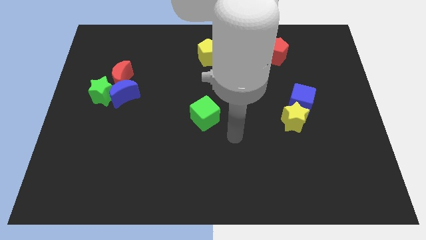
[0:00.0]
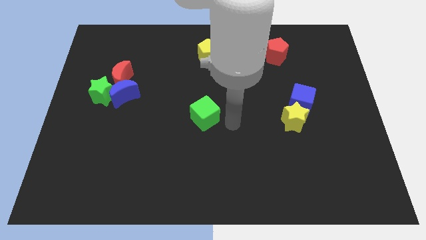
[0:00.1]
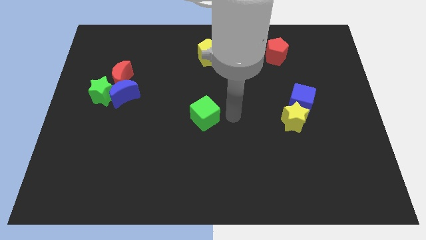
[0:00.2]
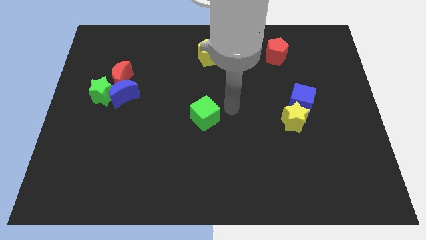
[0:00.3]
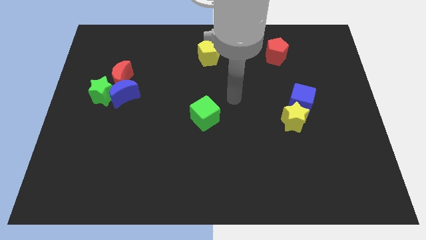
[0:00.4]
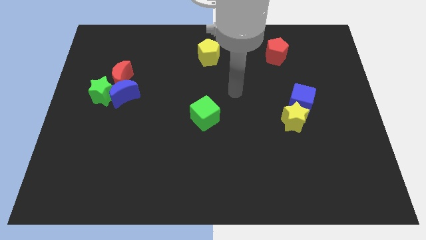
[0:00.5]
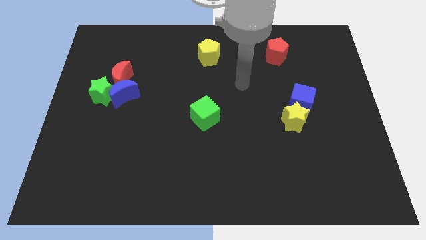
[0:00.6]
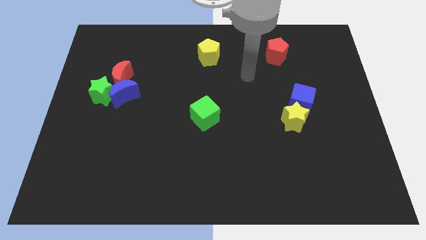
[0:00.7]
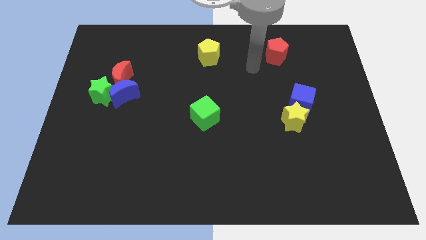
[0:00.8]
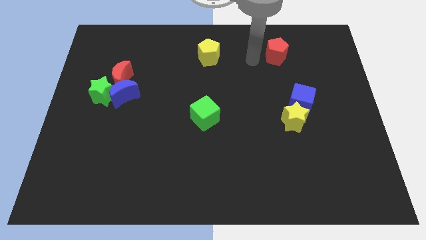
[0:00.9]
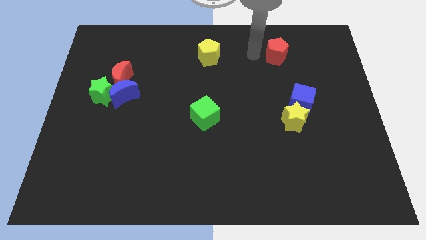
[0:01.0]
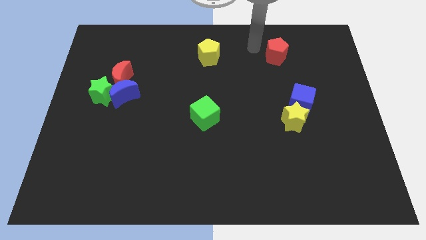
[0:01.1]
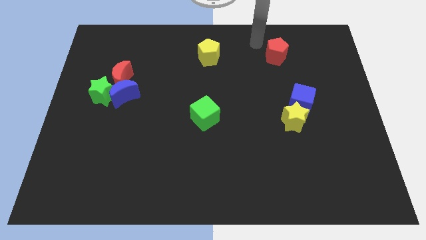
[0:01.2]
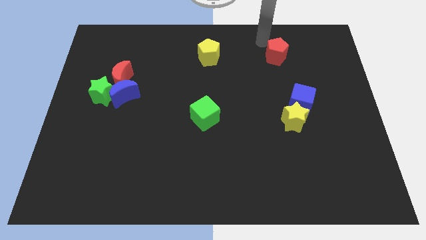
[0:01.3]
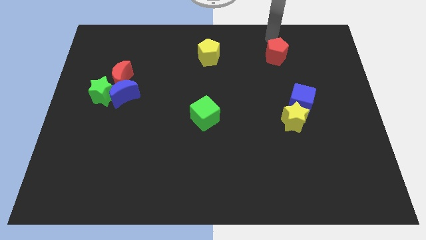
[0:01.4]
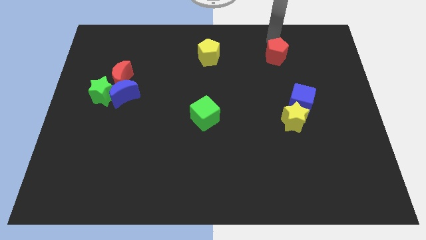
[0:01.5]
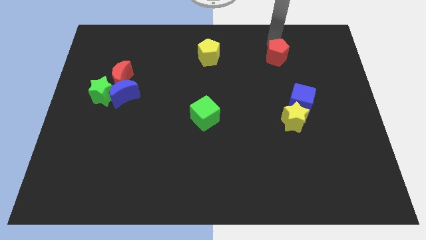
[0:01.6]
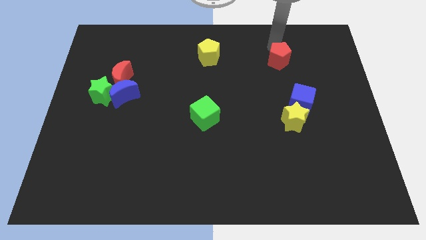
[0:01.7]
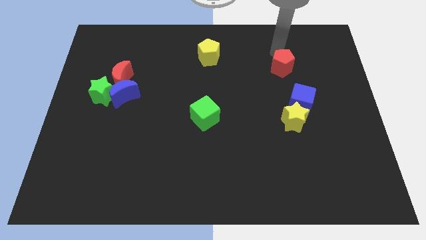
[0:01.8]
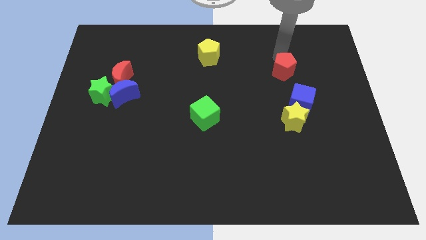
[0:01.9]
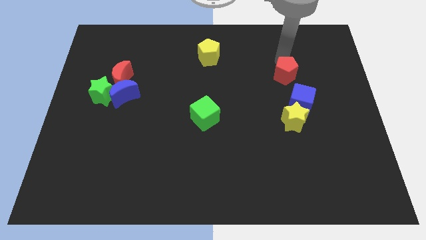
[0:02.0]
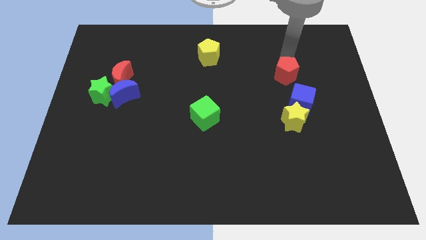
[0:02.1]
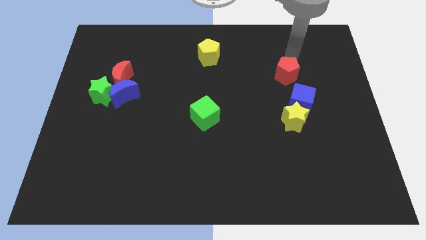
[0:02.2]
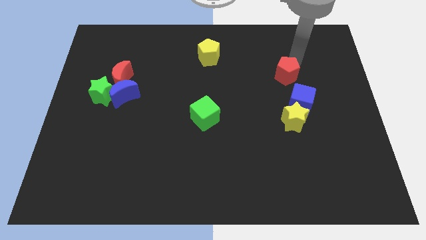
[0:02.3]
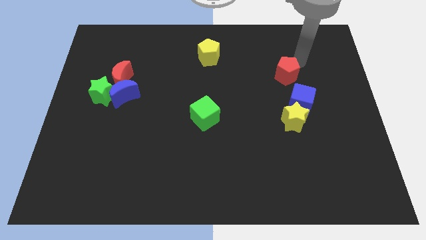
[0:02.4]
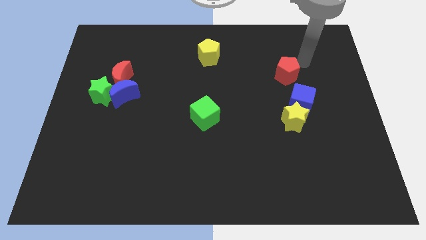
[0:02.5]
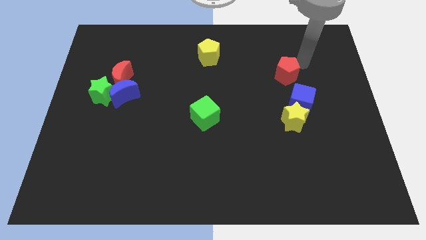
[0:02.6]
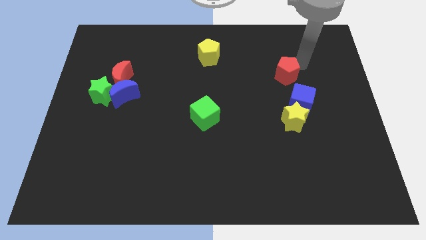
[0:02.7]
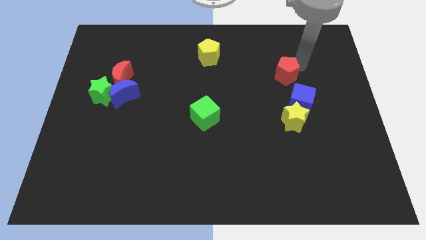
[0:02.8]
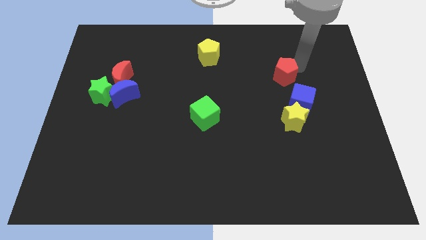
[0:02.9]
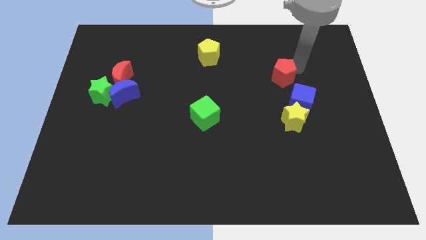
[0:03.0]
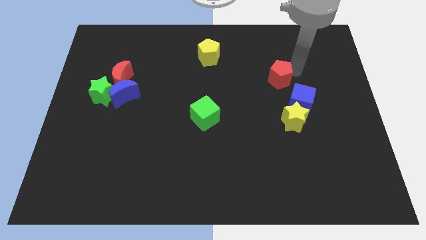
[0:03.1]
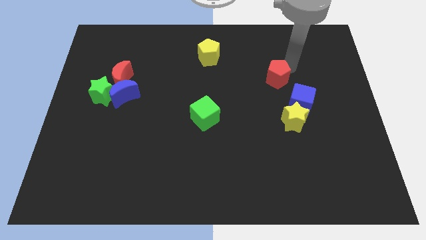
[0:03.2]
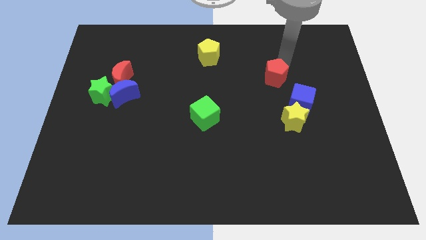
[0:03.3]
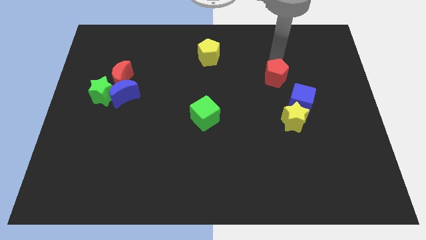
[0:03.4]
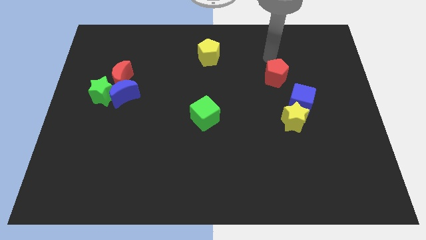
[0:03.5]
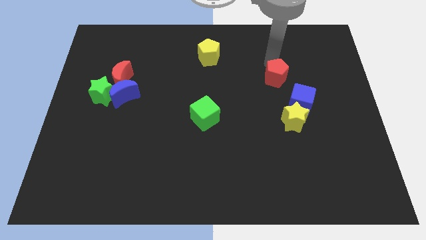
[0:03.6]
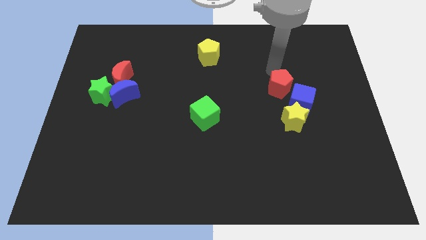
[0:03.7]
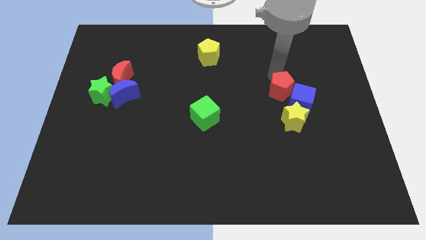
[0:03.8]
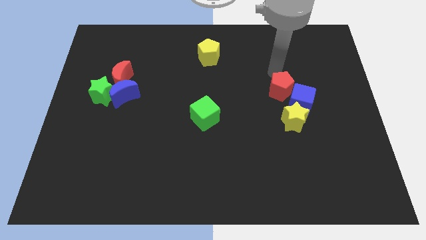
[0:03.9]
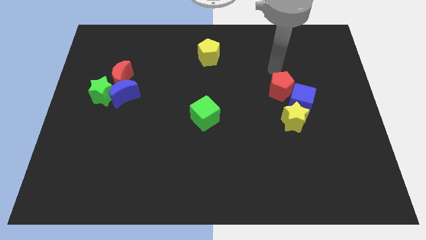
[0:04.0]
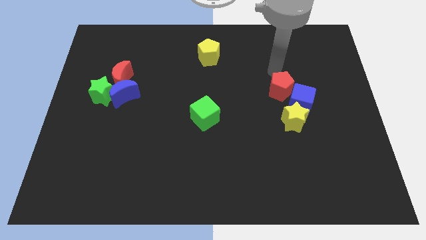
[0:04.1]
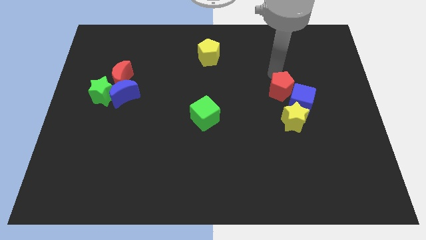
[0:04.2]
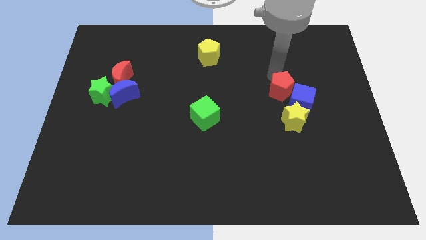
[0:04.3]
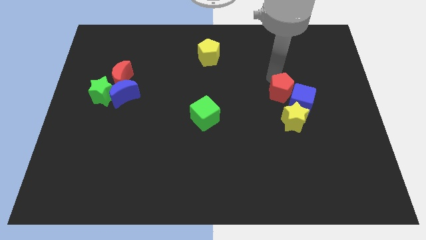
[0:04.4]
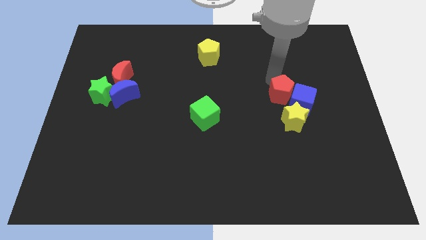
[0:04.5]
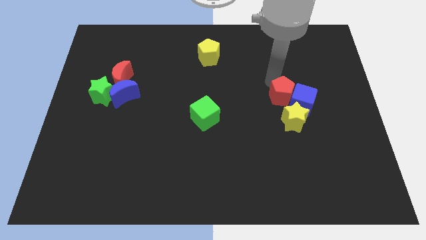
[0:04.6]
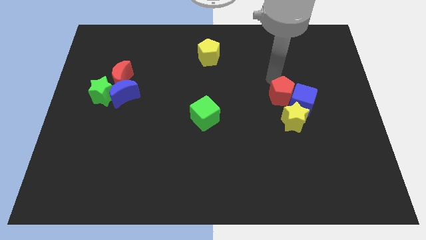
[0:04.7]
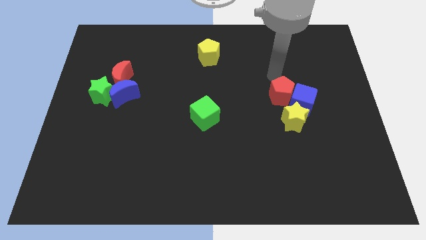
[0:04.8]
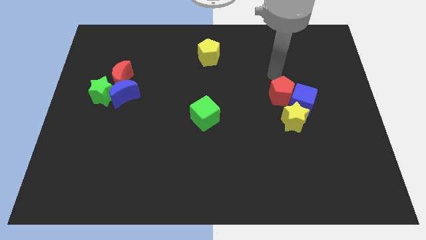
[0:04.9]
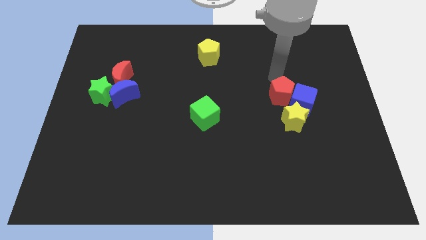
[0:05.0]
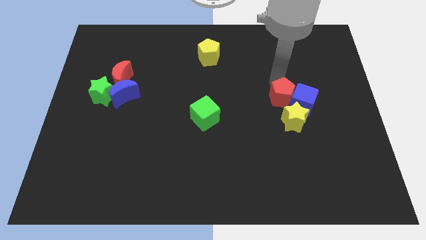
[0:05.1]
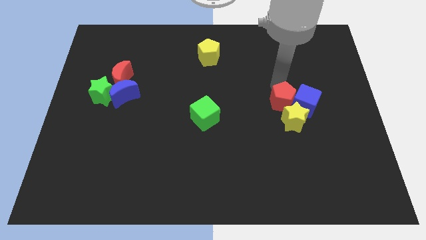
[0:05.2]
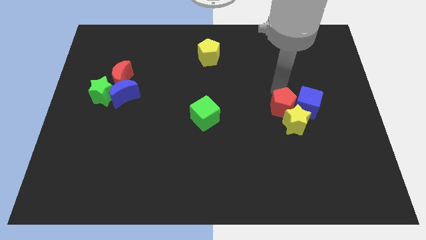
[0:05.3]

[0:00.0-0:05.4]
move the red pentagon close to the yellow star
